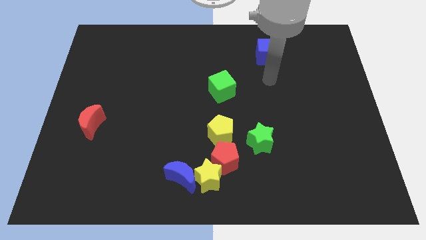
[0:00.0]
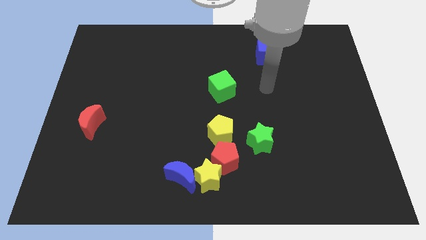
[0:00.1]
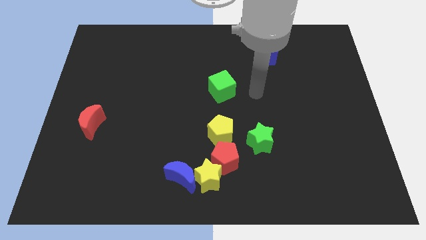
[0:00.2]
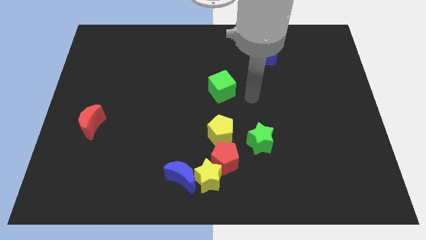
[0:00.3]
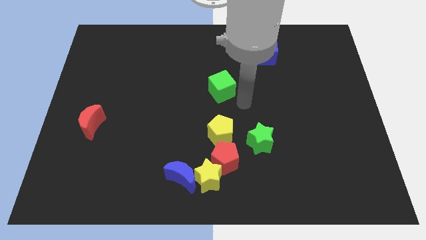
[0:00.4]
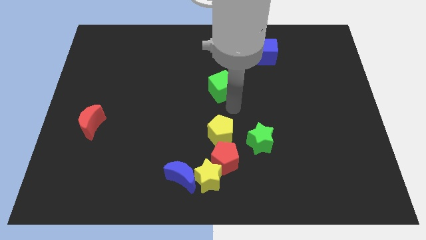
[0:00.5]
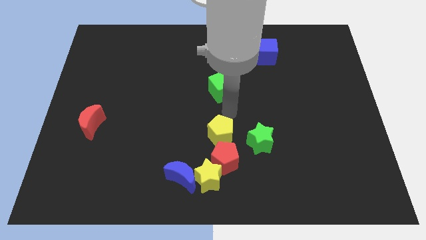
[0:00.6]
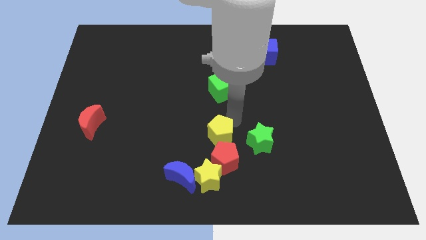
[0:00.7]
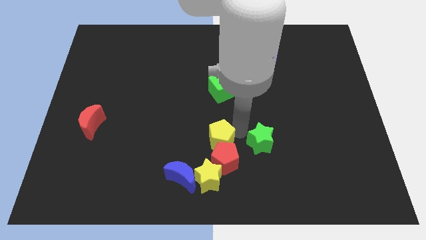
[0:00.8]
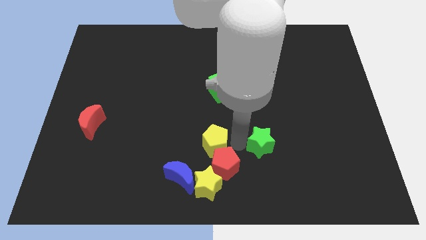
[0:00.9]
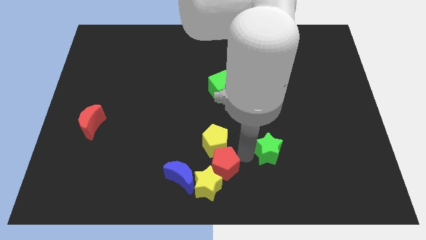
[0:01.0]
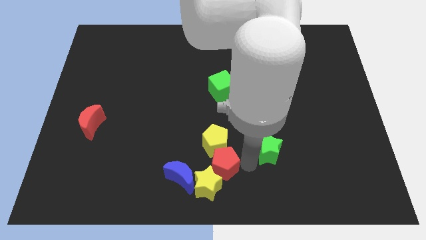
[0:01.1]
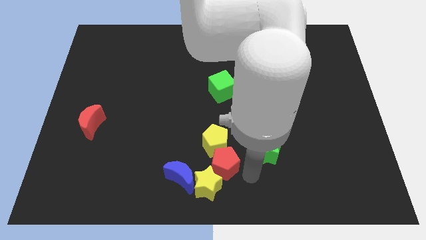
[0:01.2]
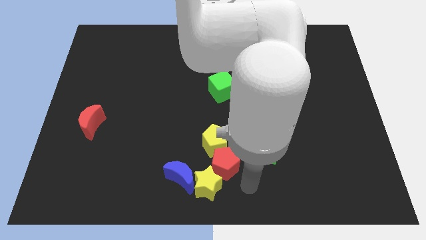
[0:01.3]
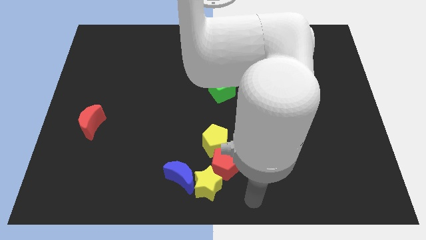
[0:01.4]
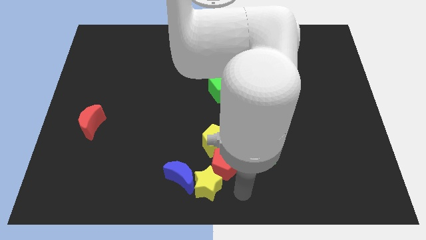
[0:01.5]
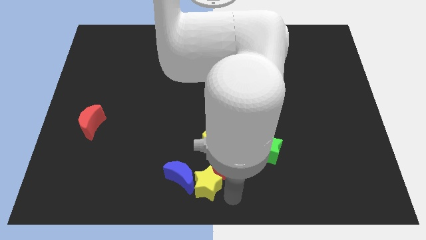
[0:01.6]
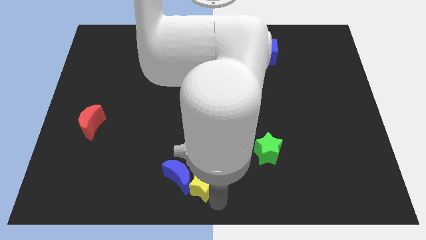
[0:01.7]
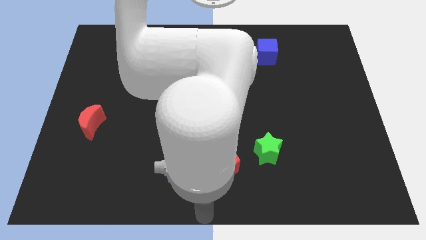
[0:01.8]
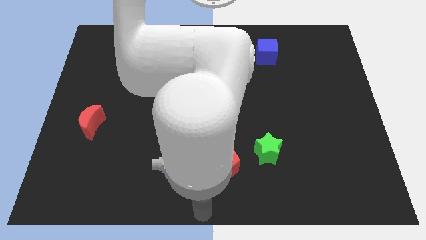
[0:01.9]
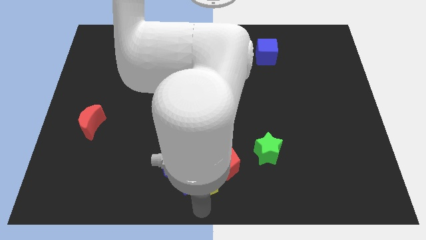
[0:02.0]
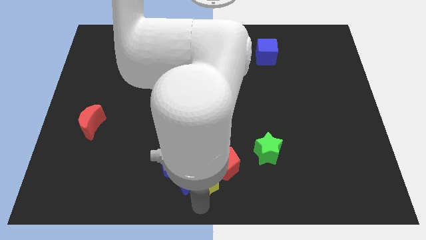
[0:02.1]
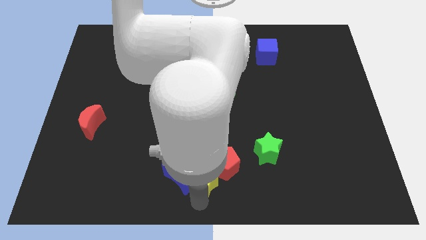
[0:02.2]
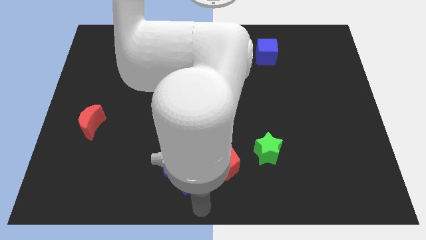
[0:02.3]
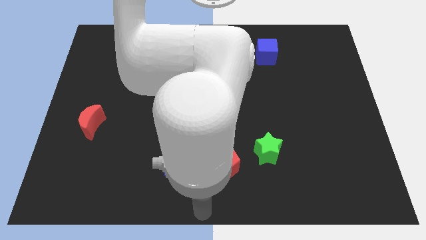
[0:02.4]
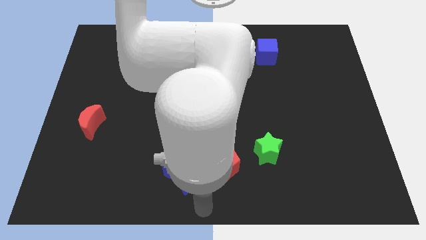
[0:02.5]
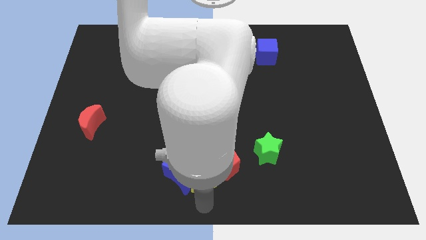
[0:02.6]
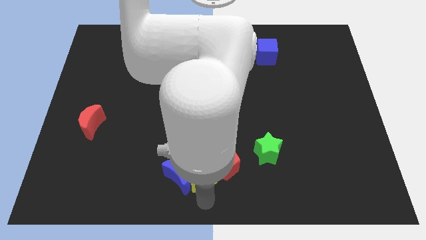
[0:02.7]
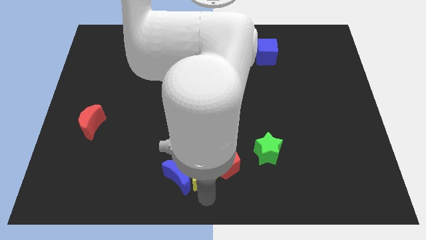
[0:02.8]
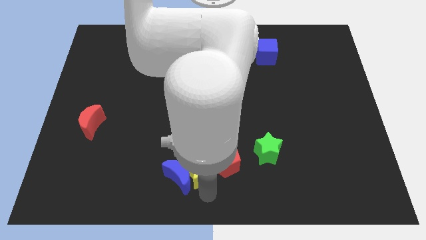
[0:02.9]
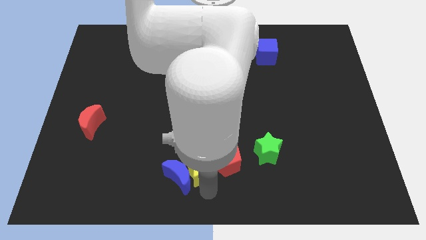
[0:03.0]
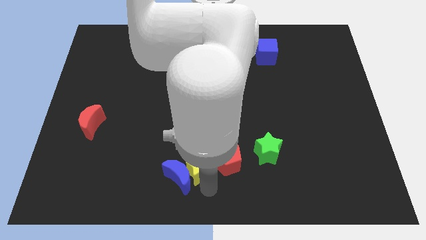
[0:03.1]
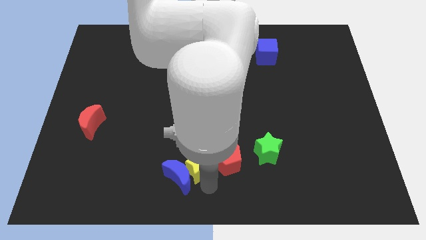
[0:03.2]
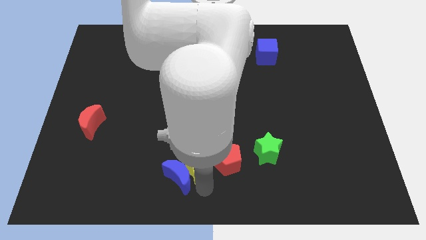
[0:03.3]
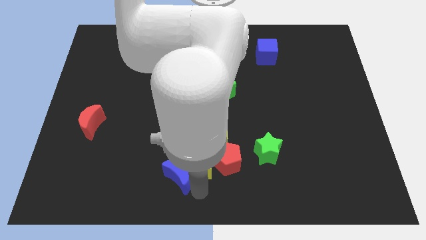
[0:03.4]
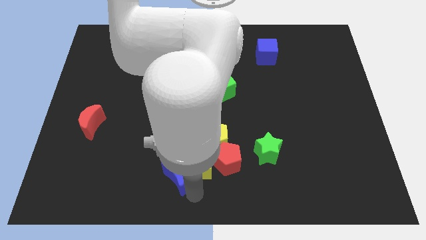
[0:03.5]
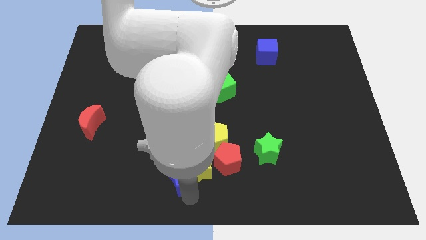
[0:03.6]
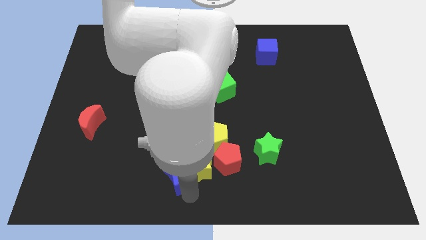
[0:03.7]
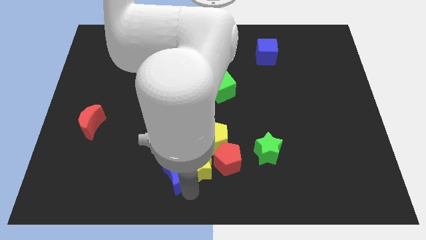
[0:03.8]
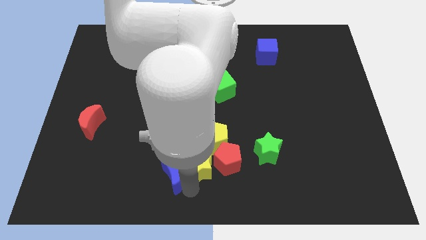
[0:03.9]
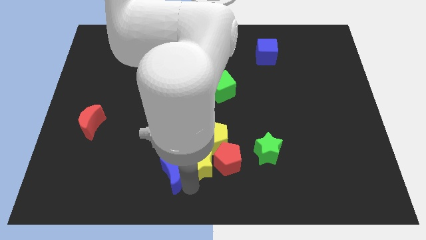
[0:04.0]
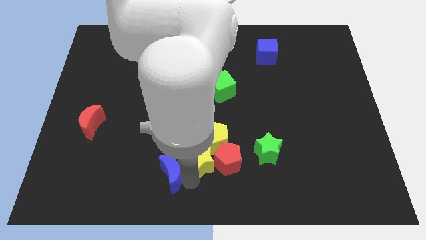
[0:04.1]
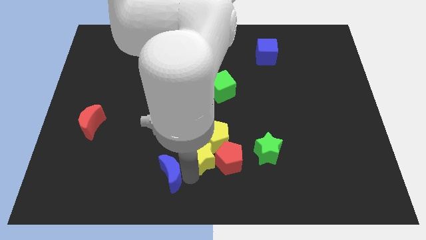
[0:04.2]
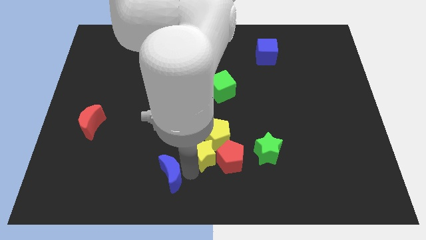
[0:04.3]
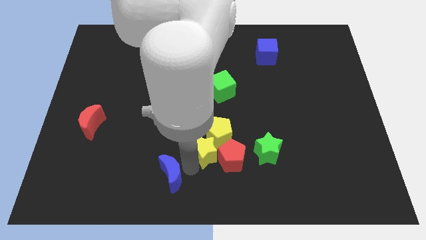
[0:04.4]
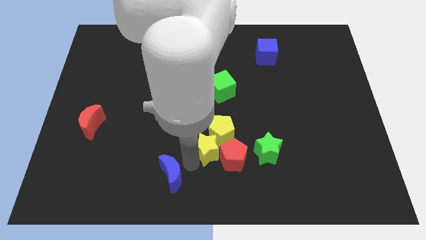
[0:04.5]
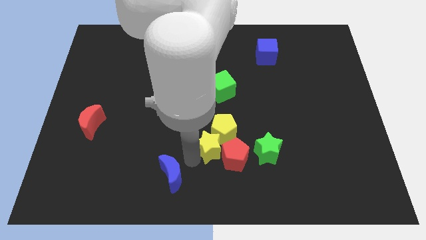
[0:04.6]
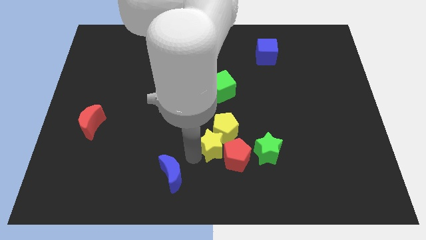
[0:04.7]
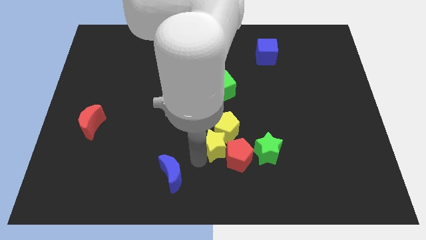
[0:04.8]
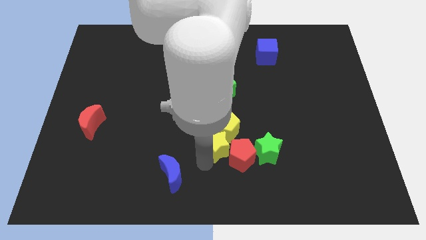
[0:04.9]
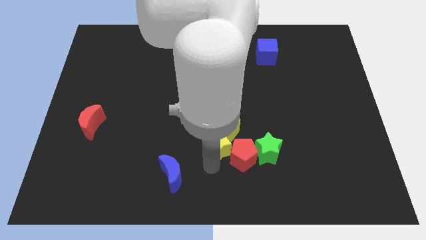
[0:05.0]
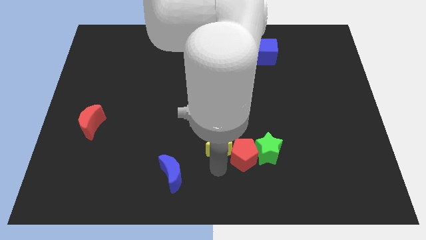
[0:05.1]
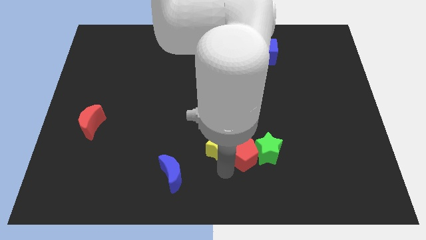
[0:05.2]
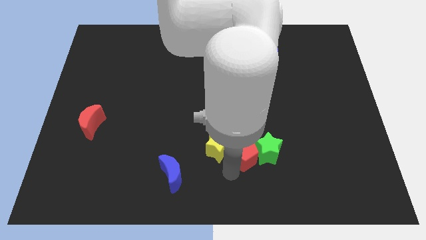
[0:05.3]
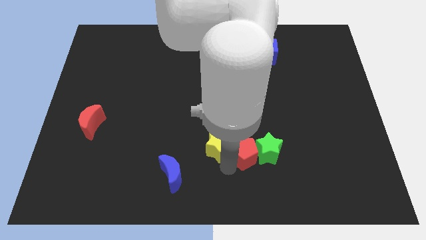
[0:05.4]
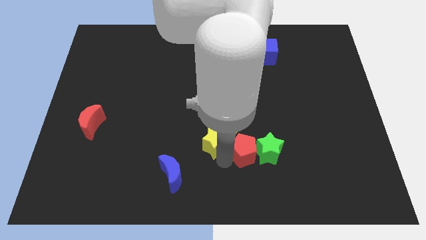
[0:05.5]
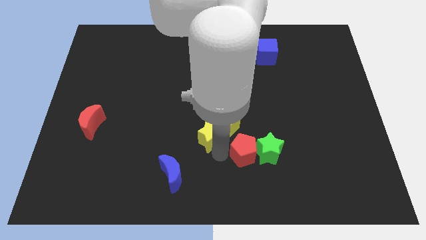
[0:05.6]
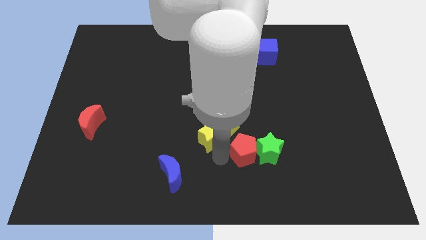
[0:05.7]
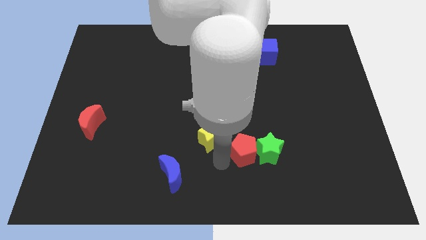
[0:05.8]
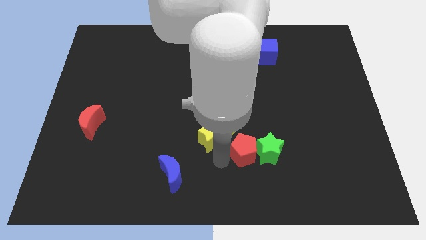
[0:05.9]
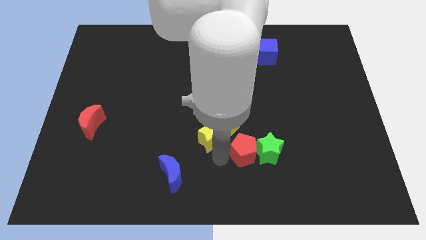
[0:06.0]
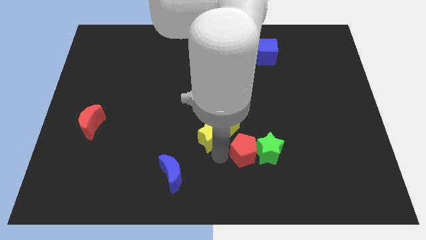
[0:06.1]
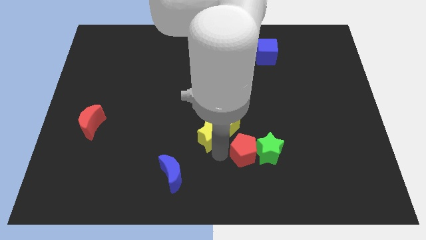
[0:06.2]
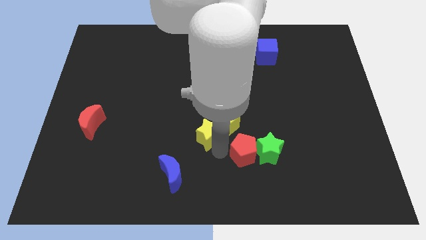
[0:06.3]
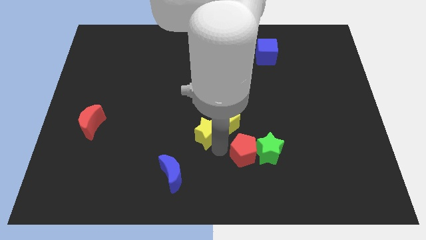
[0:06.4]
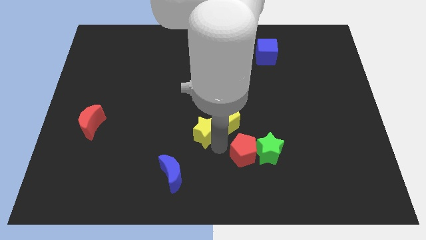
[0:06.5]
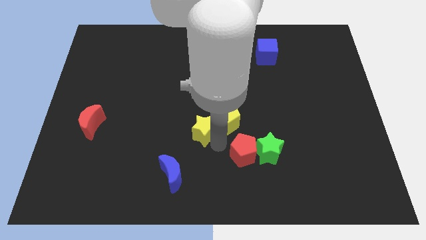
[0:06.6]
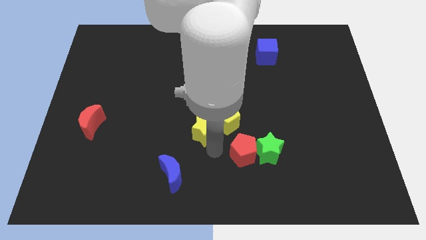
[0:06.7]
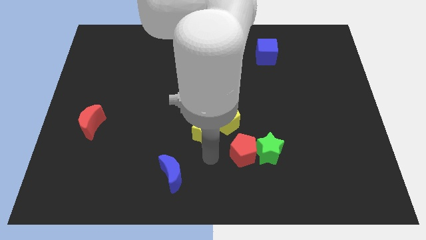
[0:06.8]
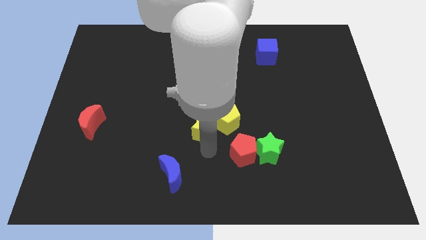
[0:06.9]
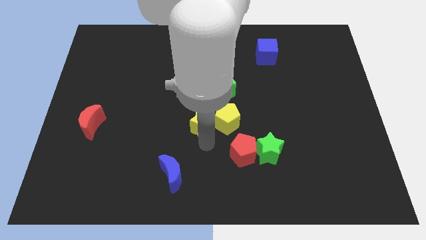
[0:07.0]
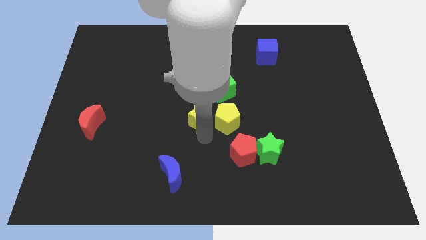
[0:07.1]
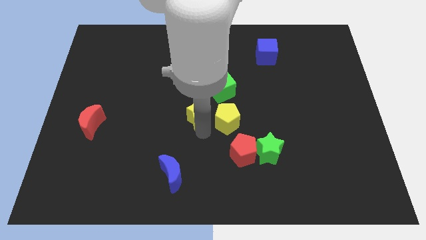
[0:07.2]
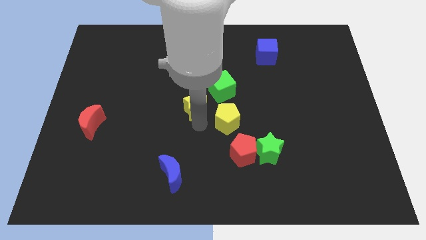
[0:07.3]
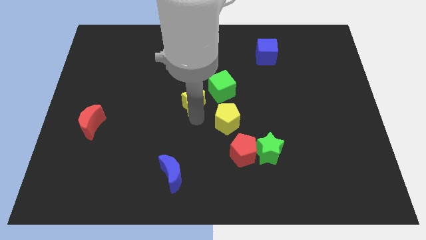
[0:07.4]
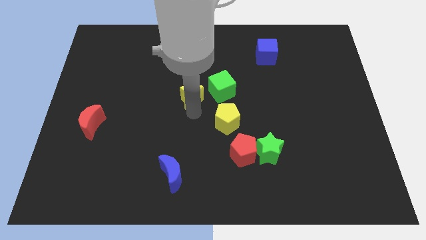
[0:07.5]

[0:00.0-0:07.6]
push the yellow star up
